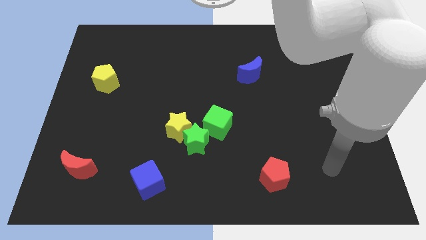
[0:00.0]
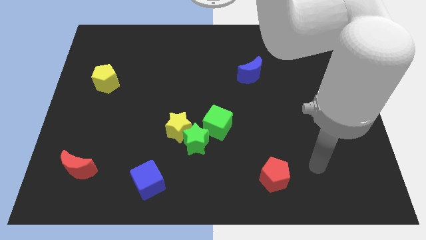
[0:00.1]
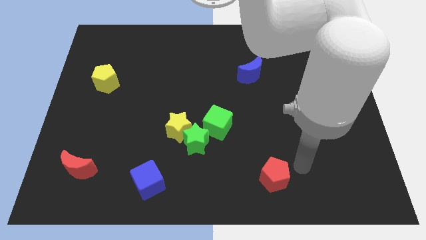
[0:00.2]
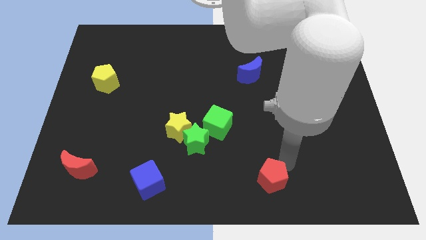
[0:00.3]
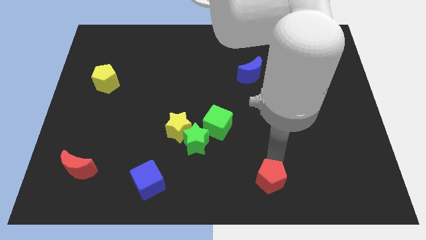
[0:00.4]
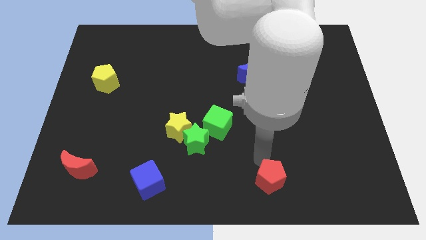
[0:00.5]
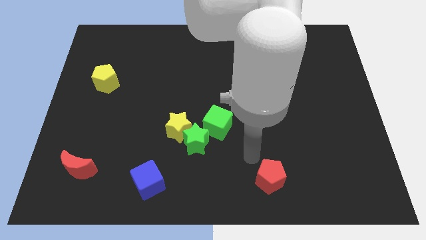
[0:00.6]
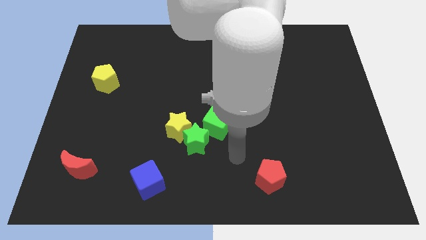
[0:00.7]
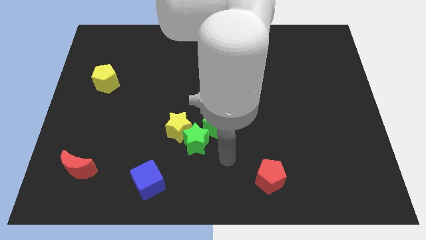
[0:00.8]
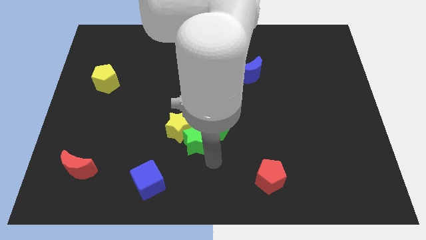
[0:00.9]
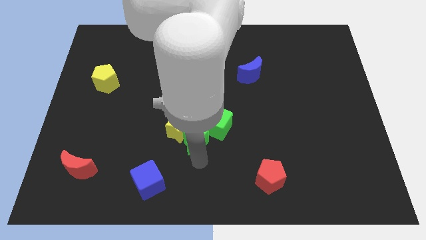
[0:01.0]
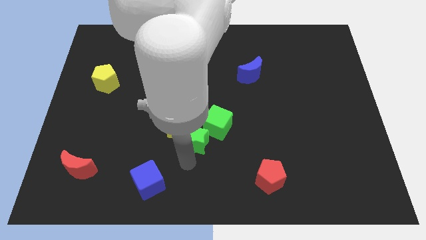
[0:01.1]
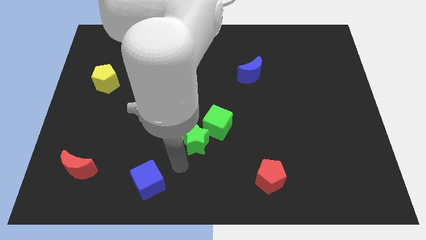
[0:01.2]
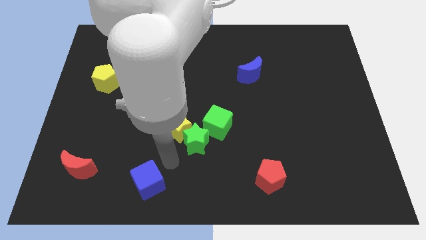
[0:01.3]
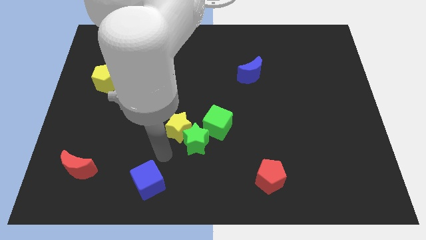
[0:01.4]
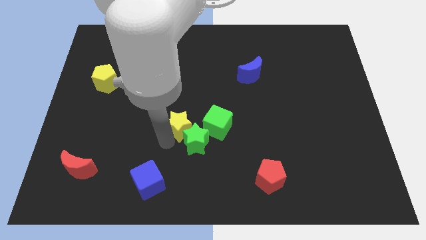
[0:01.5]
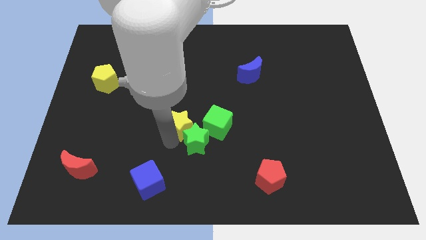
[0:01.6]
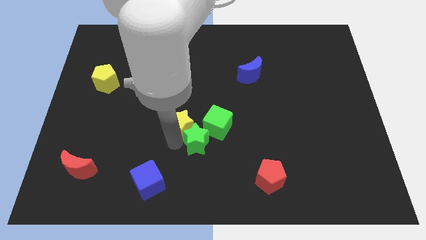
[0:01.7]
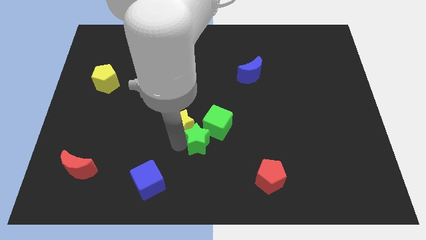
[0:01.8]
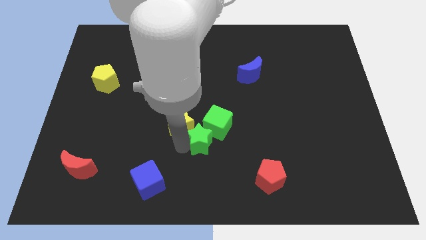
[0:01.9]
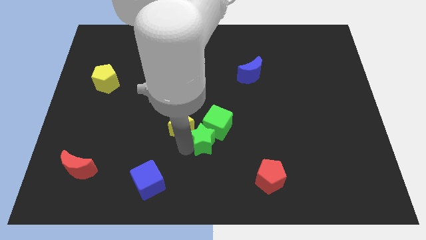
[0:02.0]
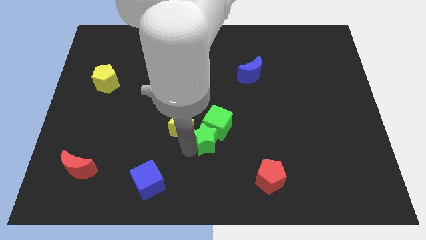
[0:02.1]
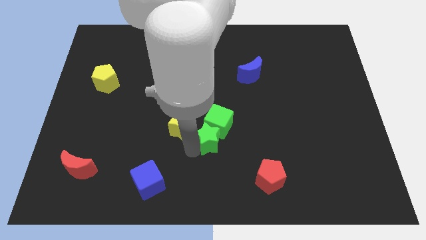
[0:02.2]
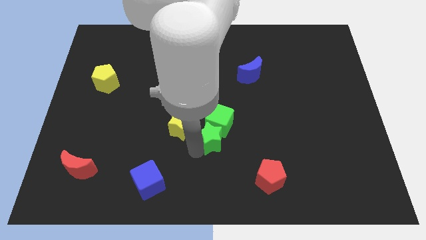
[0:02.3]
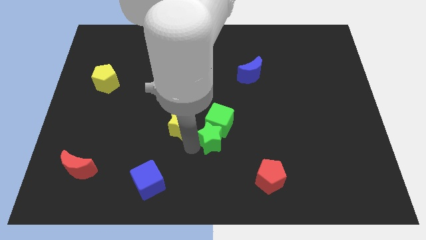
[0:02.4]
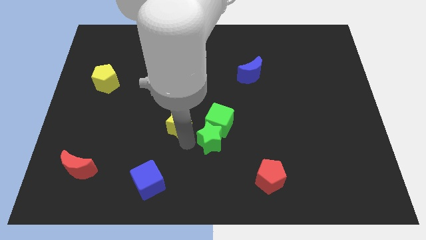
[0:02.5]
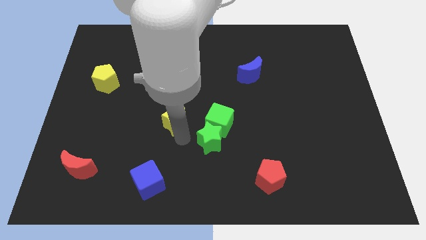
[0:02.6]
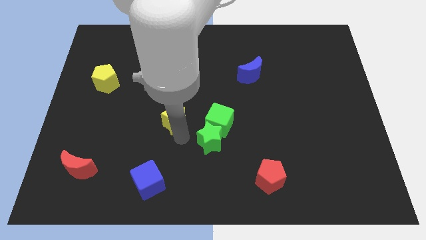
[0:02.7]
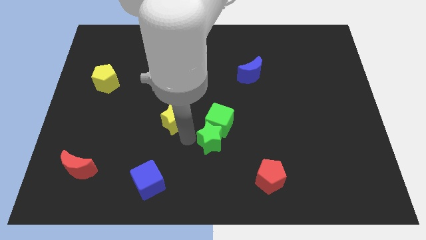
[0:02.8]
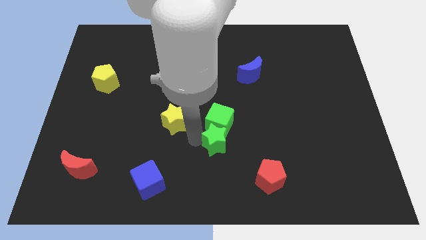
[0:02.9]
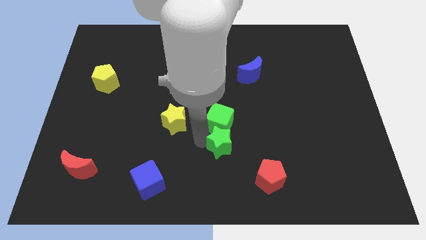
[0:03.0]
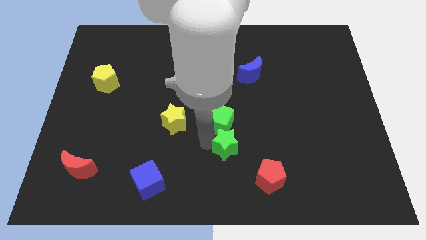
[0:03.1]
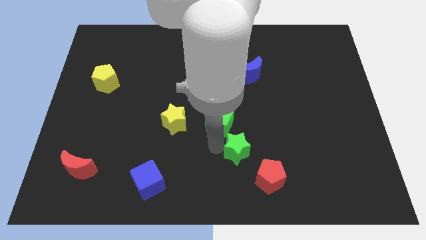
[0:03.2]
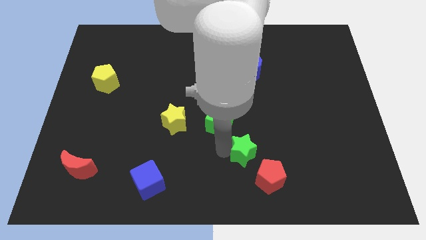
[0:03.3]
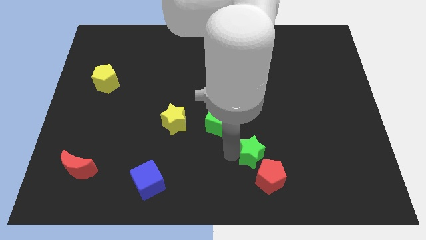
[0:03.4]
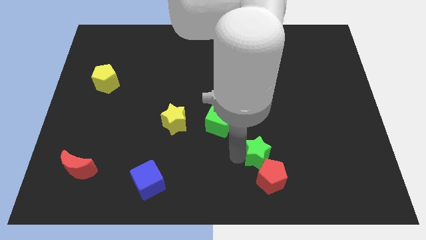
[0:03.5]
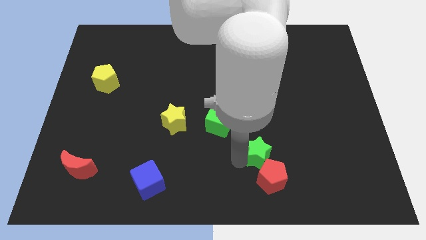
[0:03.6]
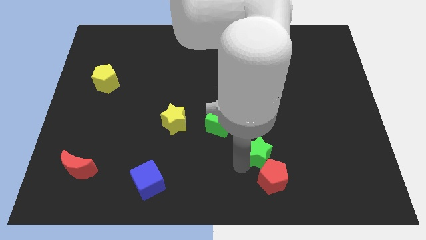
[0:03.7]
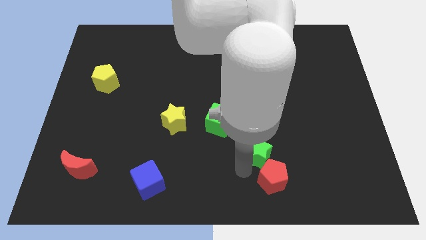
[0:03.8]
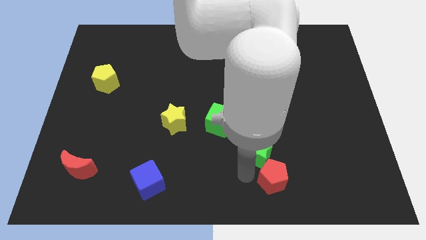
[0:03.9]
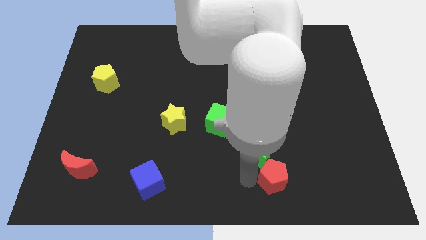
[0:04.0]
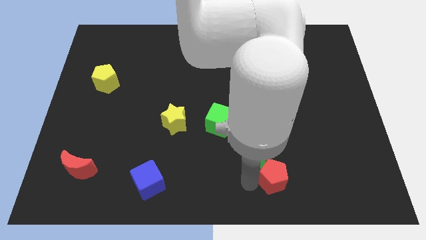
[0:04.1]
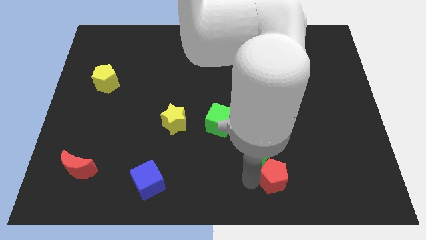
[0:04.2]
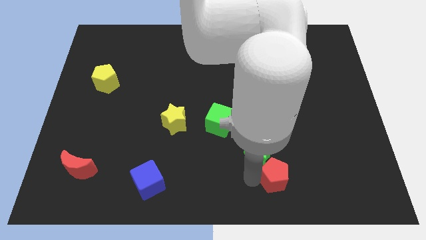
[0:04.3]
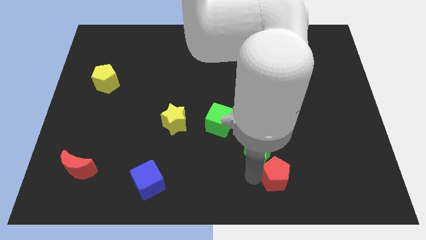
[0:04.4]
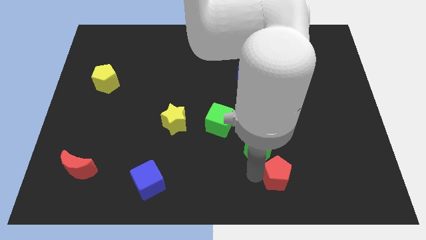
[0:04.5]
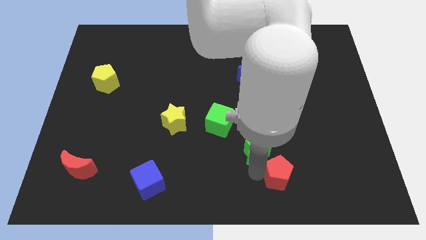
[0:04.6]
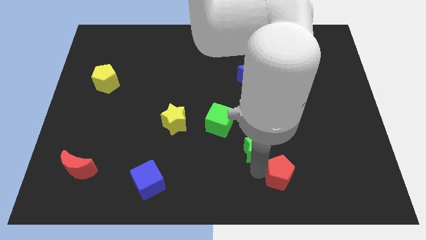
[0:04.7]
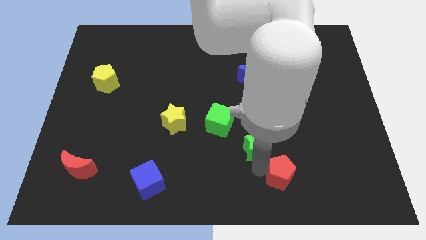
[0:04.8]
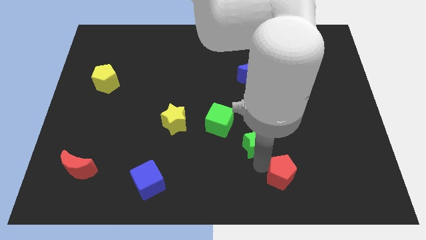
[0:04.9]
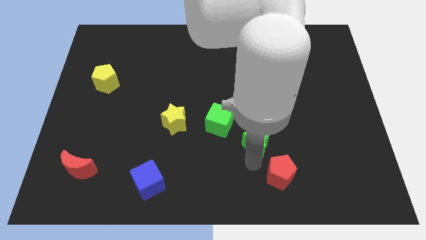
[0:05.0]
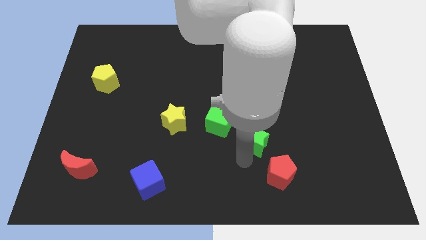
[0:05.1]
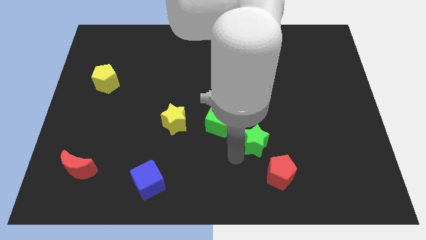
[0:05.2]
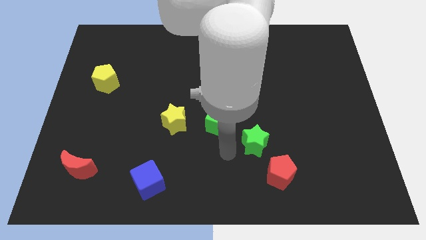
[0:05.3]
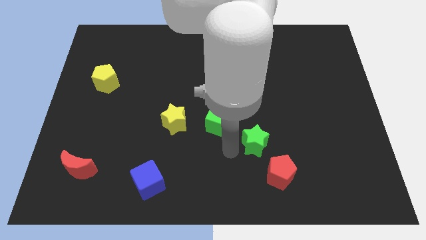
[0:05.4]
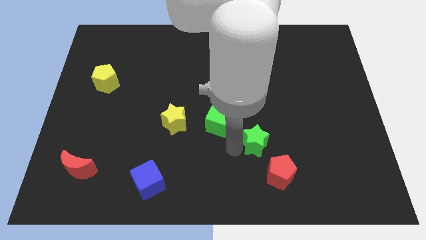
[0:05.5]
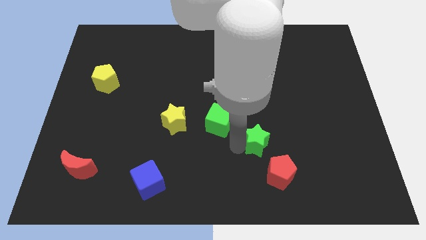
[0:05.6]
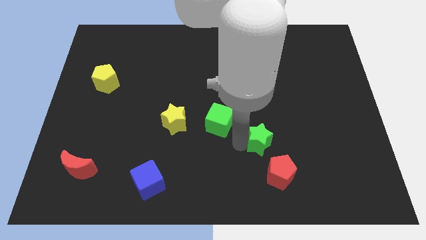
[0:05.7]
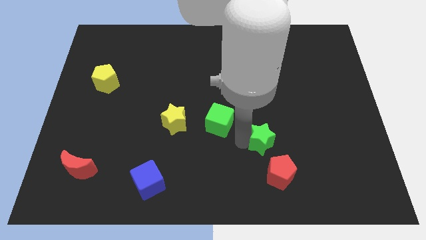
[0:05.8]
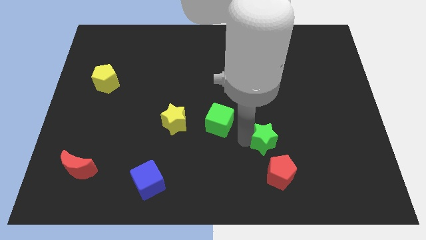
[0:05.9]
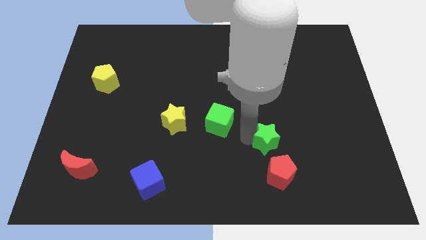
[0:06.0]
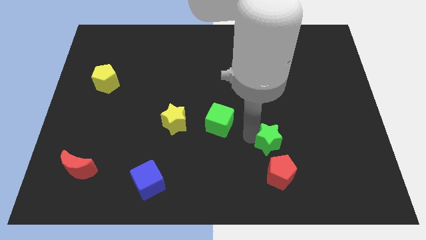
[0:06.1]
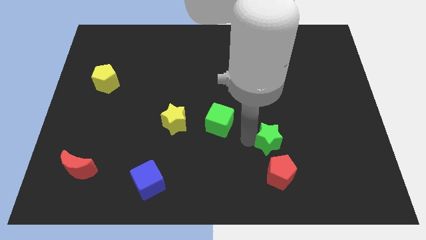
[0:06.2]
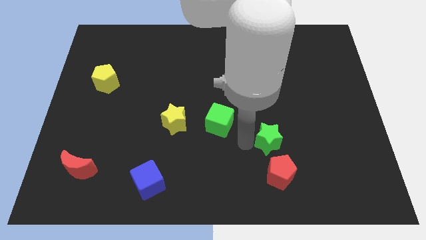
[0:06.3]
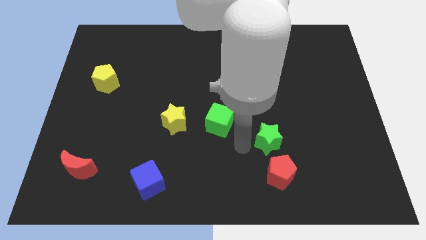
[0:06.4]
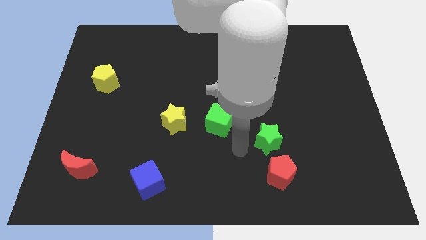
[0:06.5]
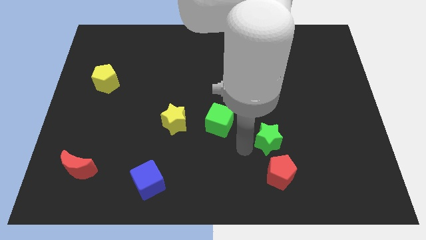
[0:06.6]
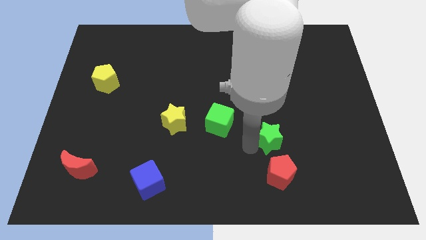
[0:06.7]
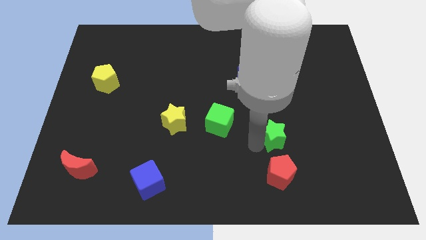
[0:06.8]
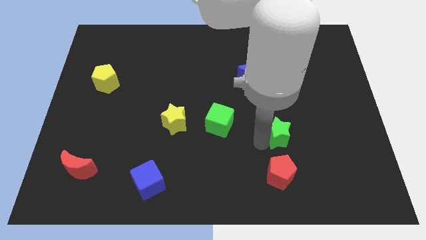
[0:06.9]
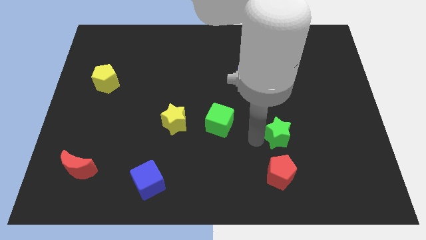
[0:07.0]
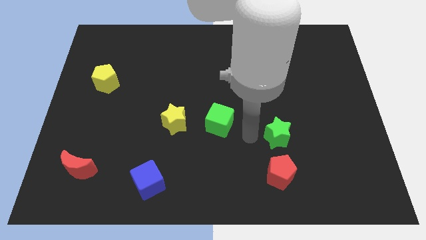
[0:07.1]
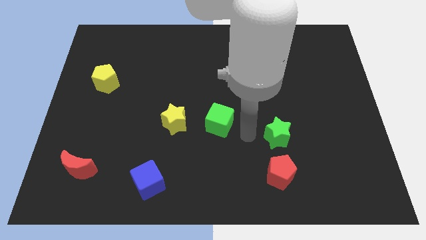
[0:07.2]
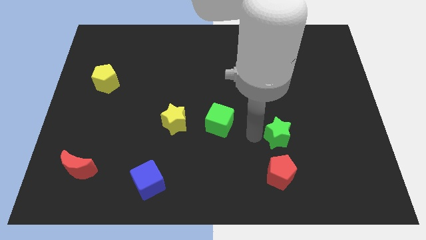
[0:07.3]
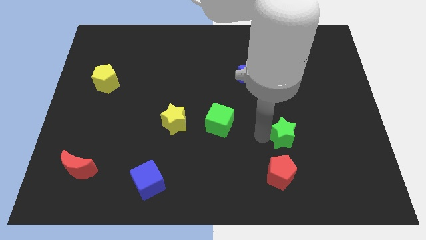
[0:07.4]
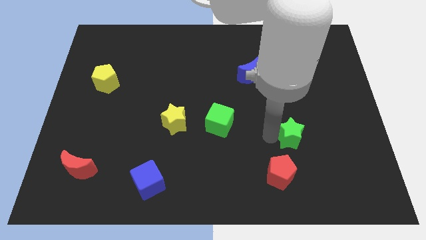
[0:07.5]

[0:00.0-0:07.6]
slide the green star to the right

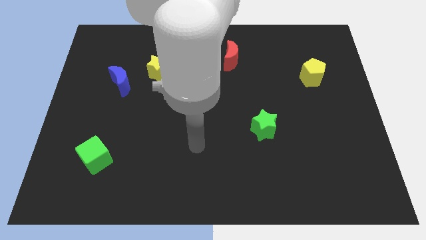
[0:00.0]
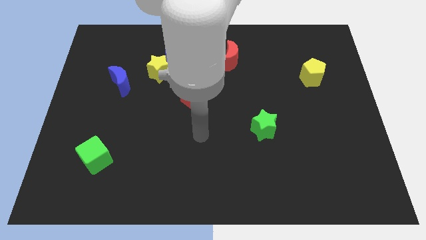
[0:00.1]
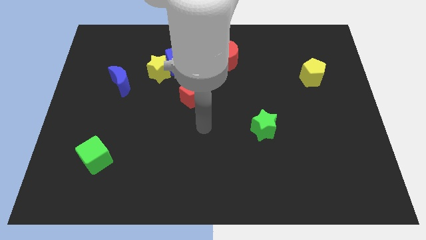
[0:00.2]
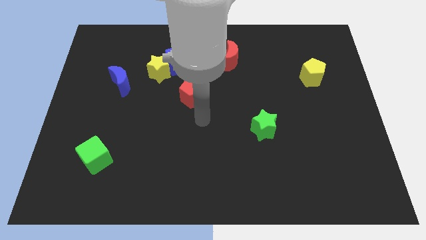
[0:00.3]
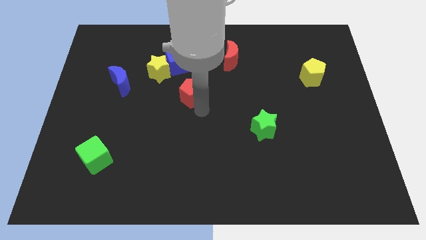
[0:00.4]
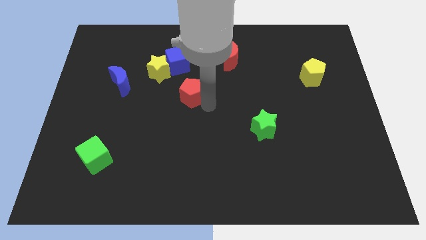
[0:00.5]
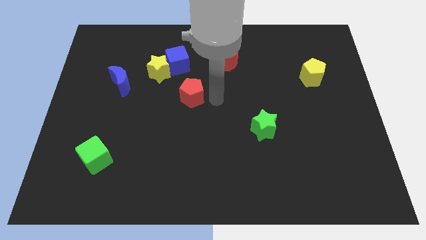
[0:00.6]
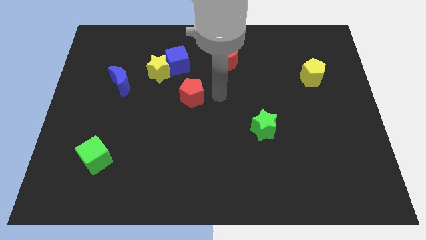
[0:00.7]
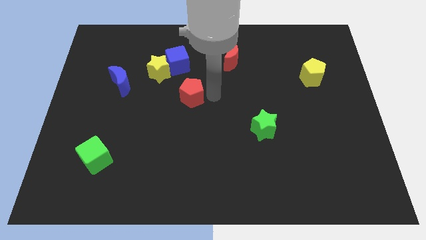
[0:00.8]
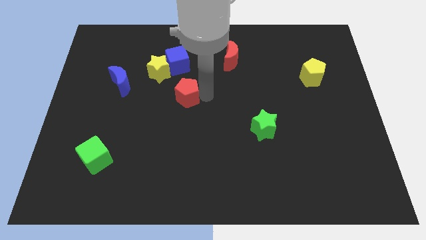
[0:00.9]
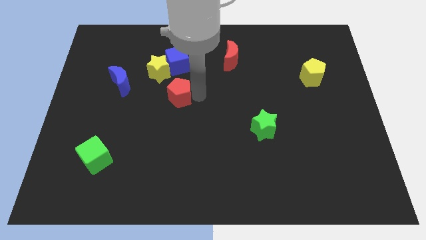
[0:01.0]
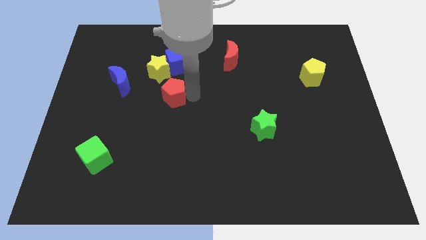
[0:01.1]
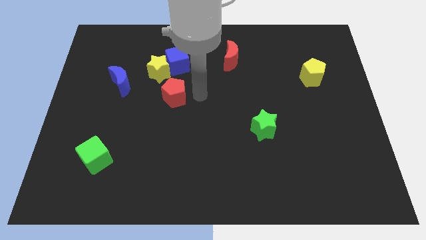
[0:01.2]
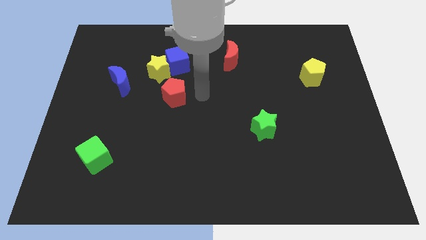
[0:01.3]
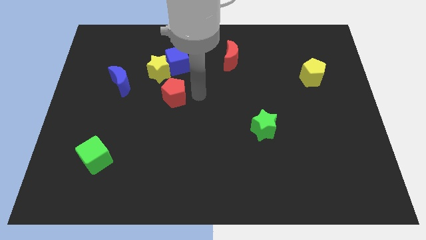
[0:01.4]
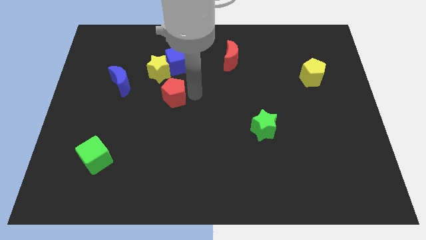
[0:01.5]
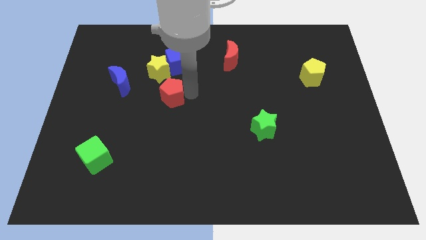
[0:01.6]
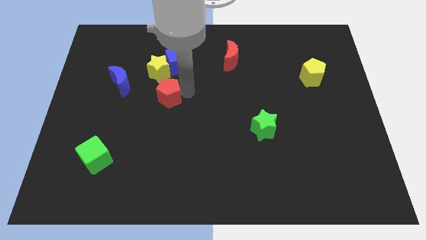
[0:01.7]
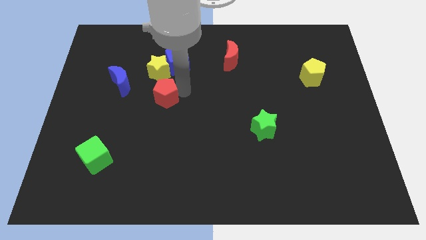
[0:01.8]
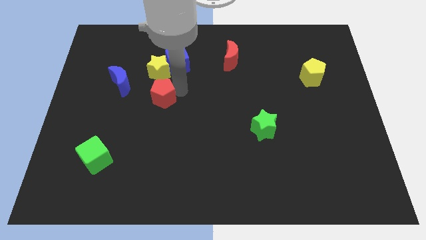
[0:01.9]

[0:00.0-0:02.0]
push the red pentagon to the left a little
